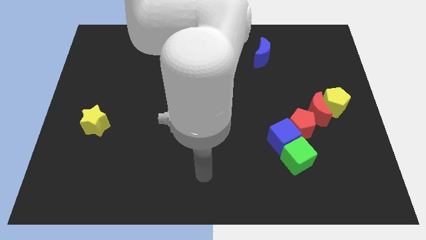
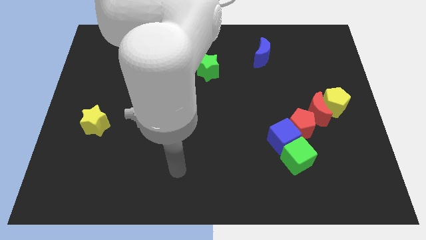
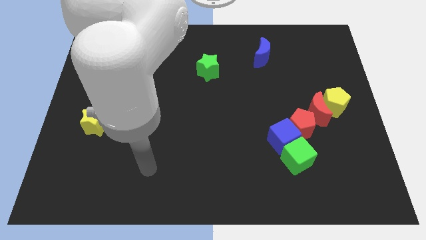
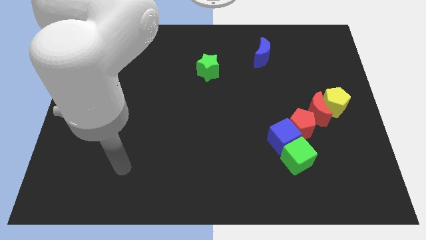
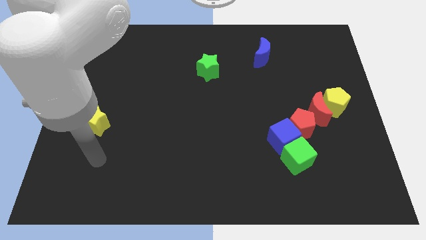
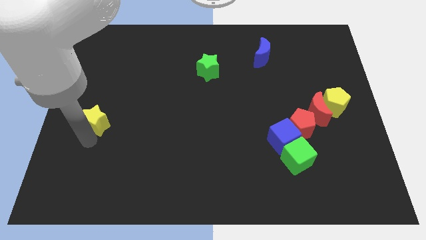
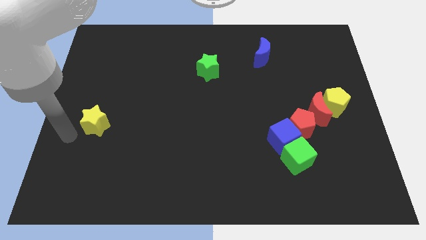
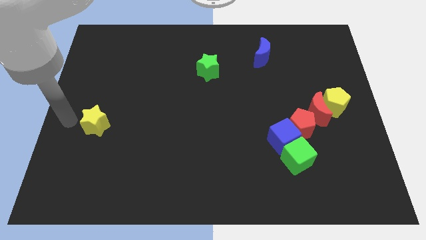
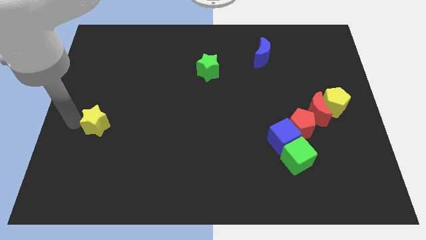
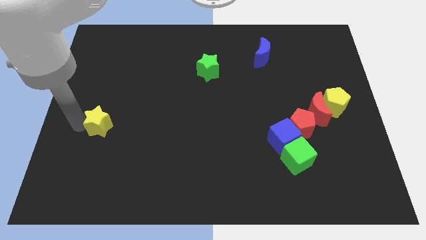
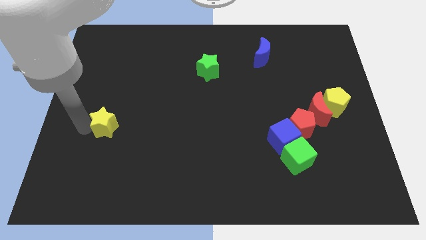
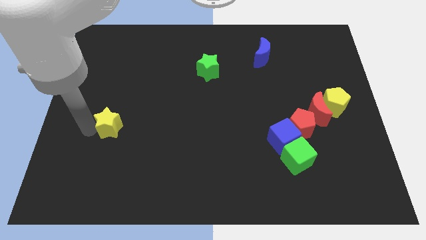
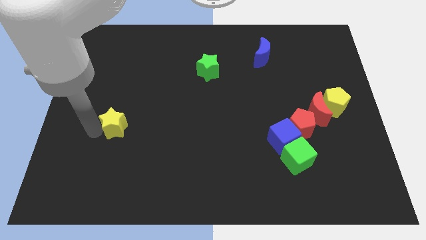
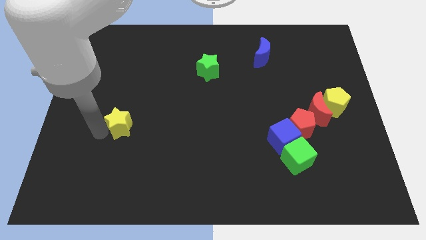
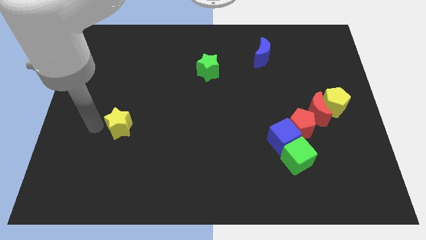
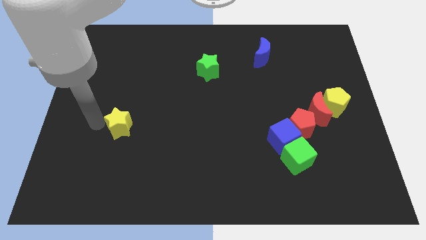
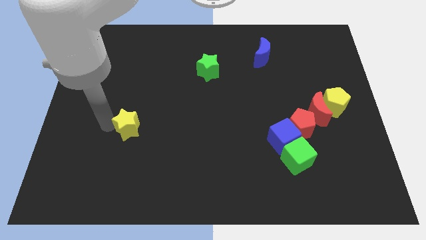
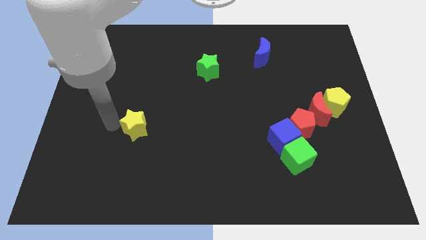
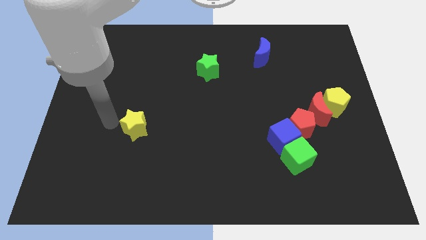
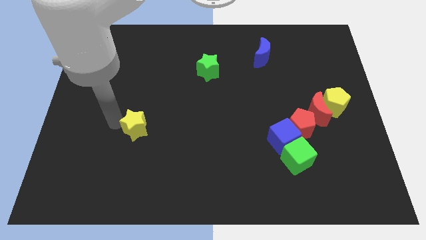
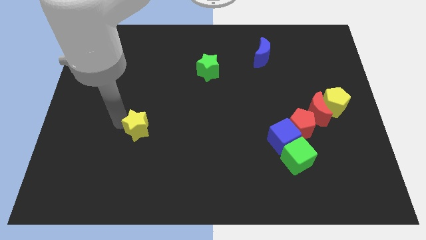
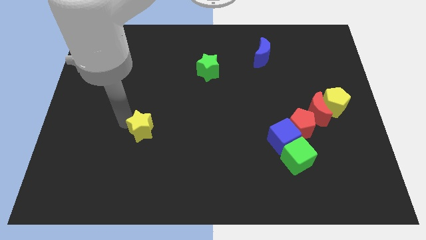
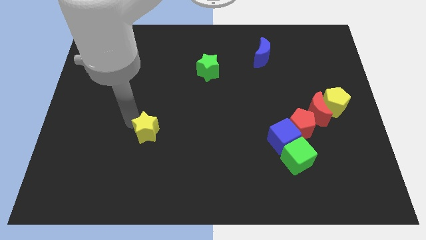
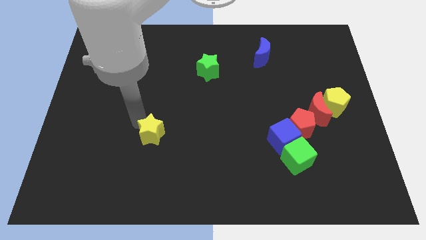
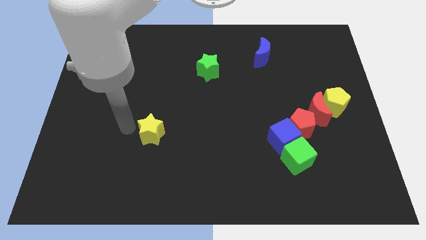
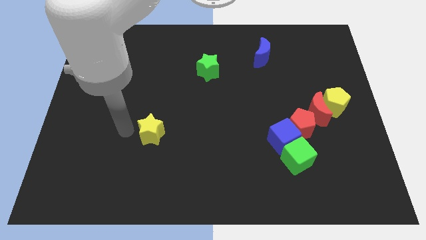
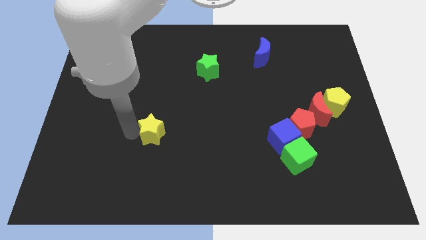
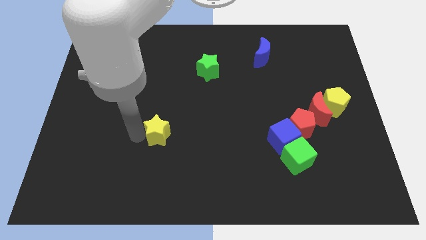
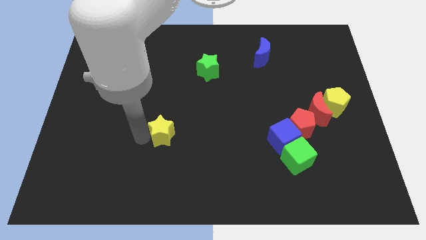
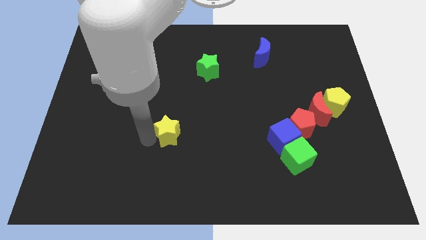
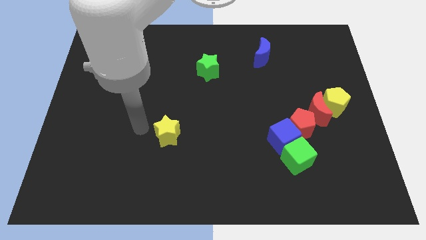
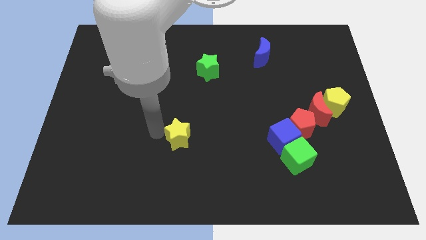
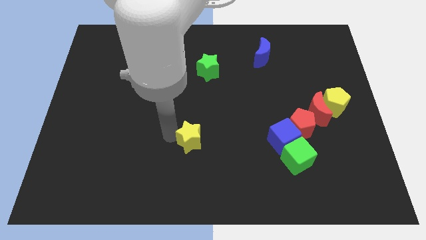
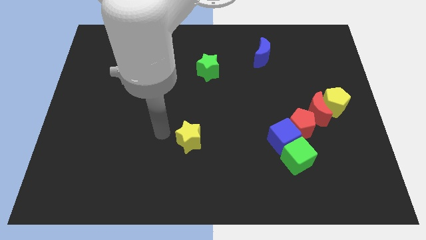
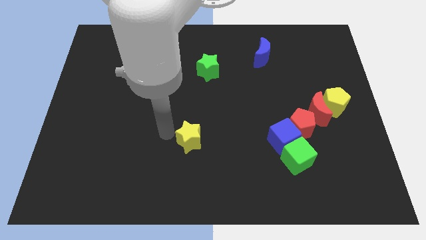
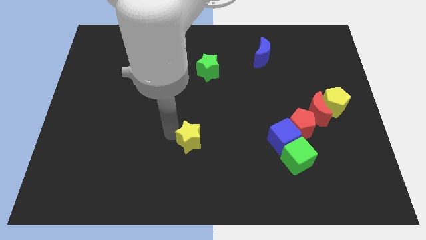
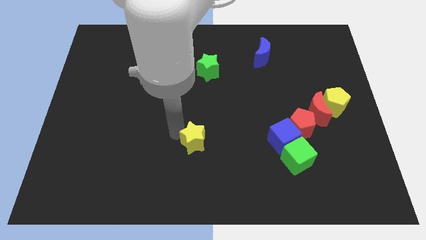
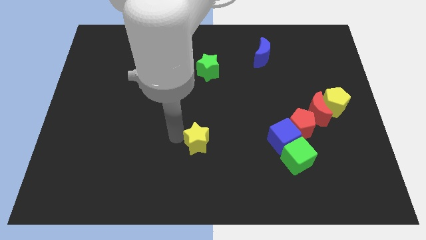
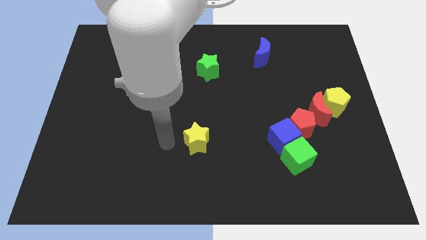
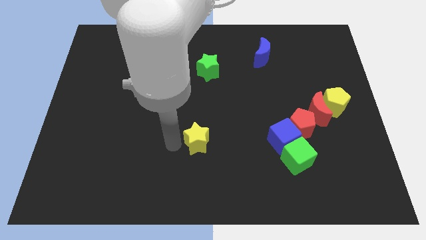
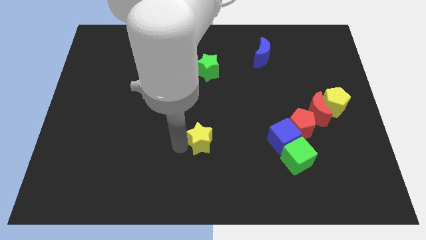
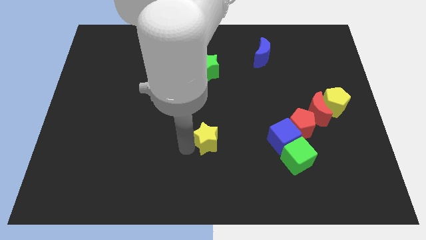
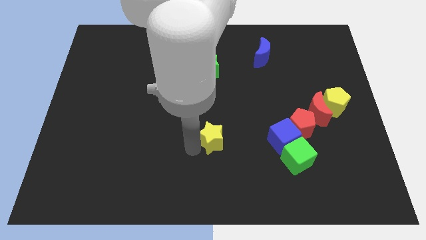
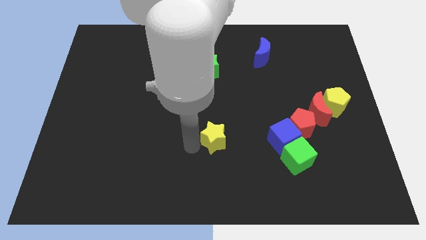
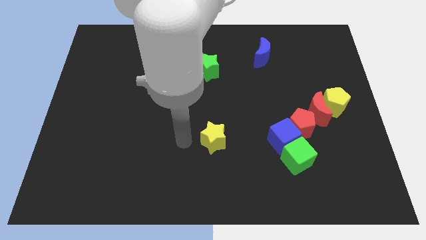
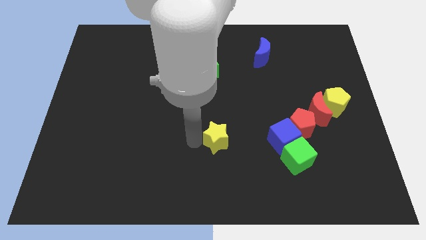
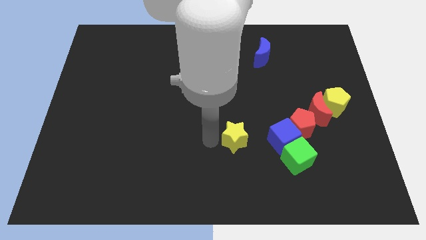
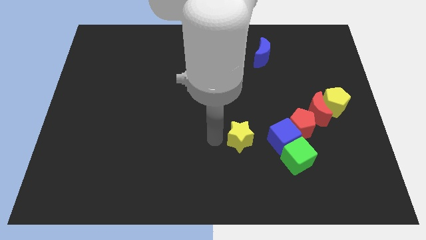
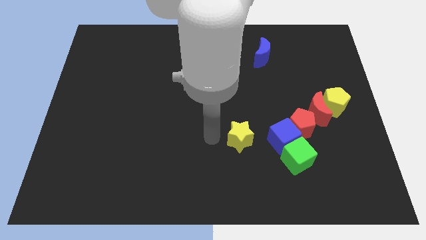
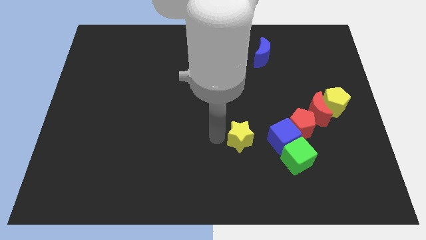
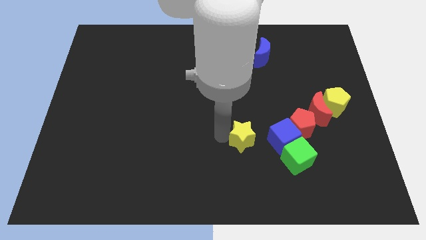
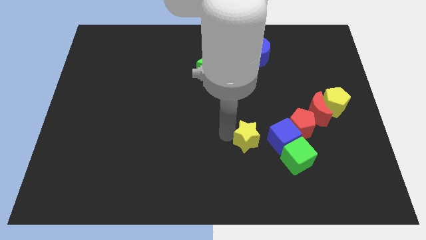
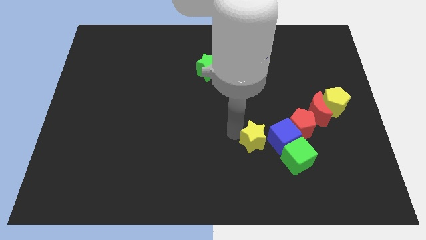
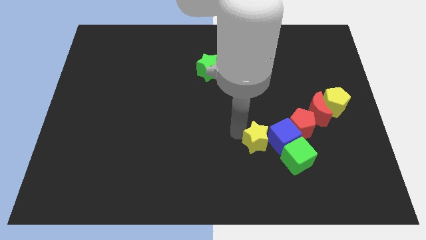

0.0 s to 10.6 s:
slide the yellow star to the blue cube

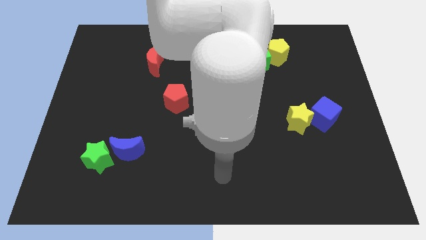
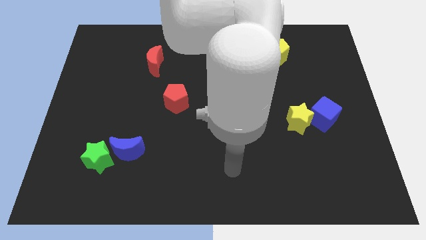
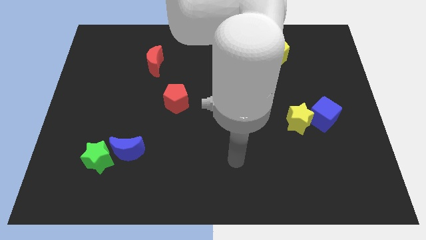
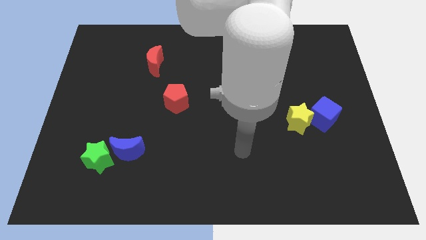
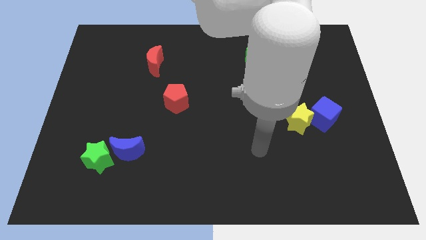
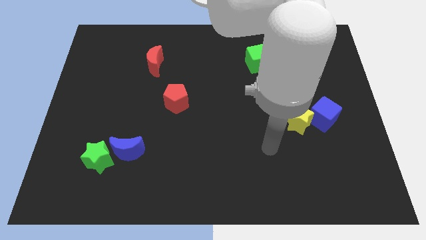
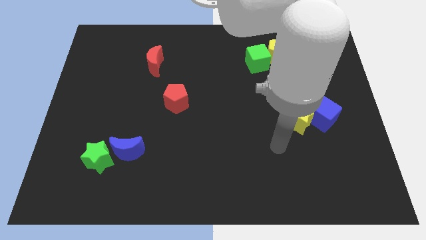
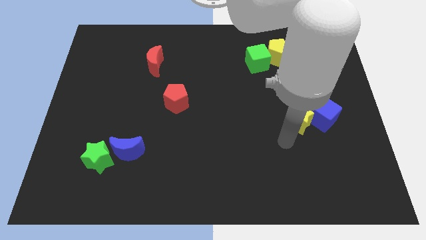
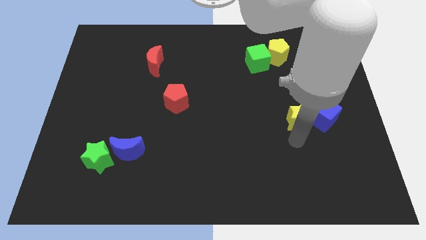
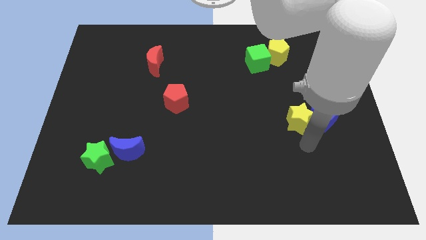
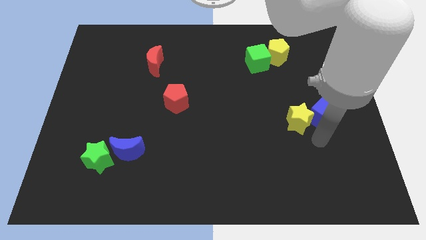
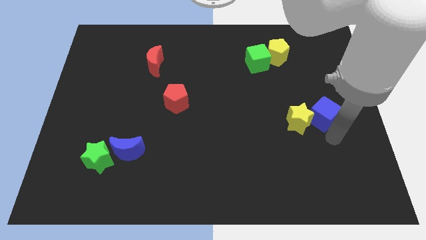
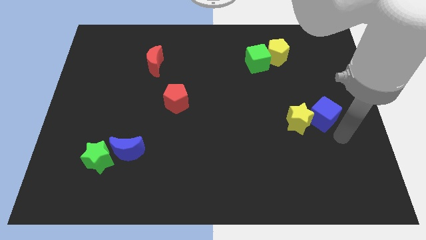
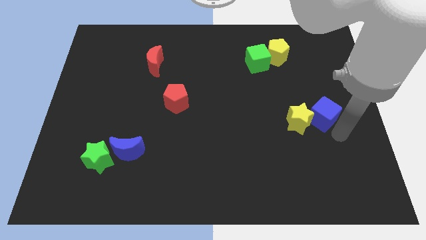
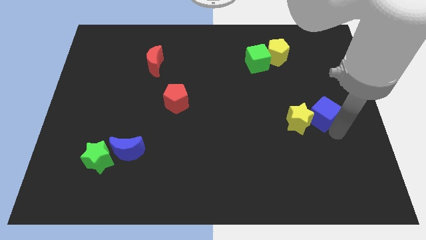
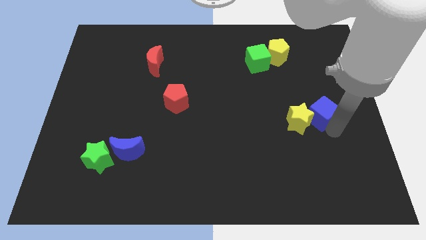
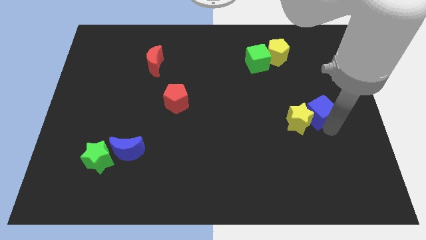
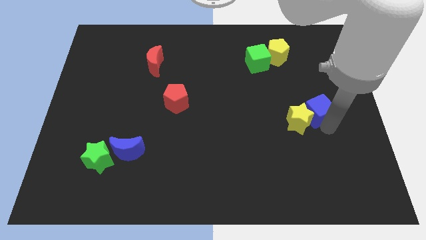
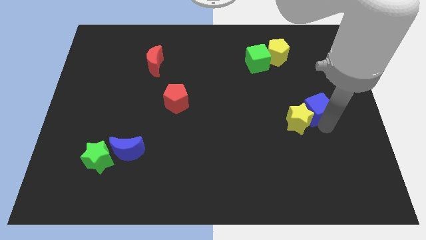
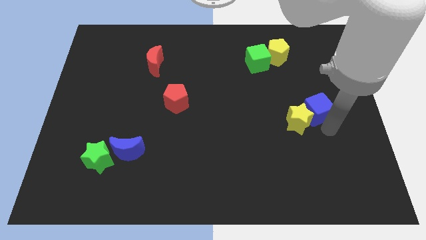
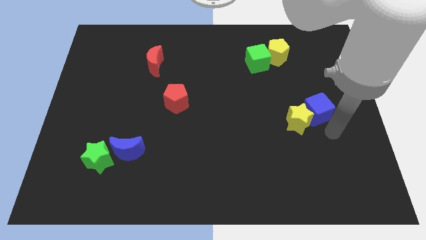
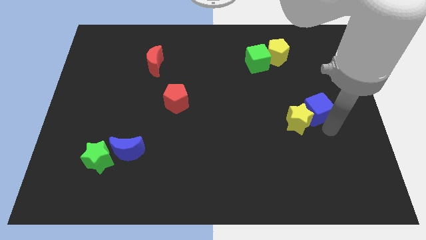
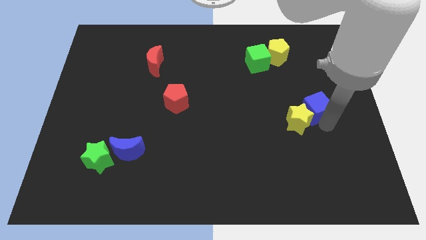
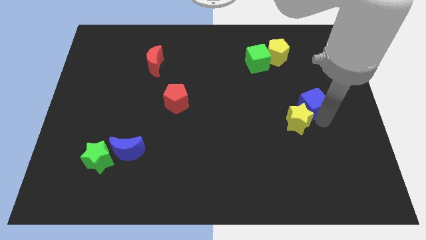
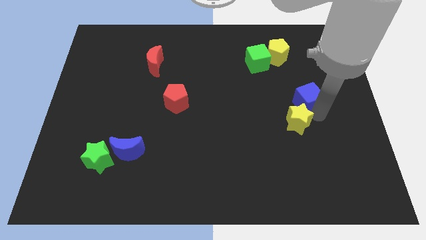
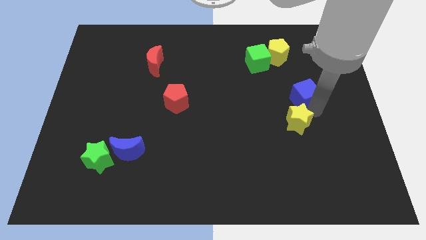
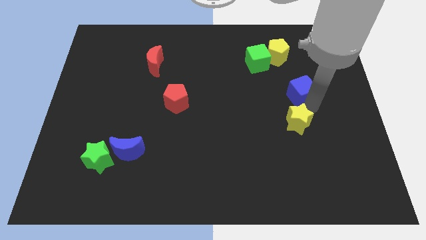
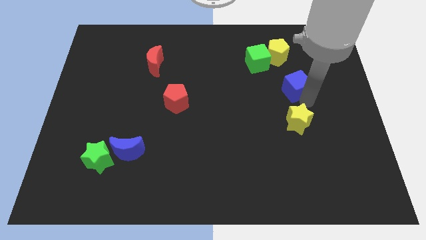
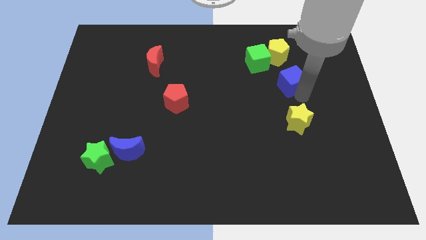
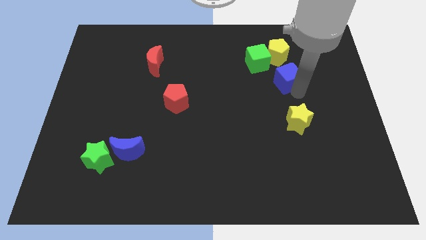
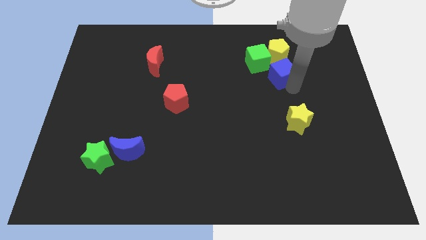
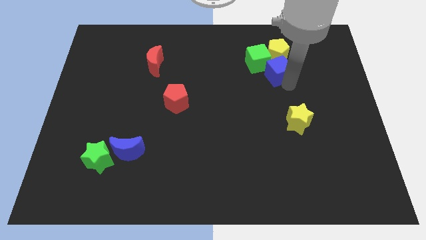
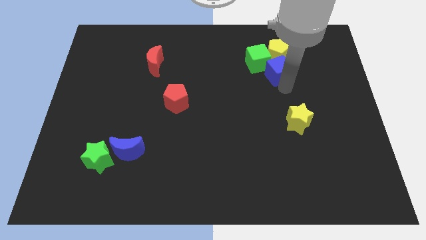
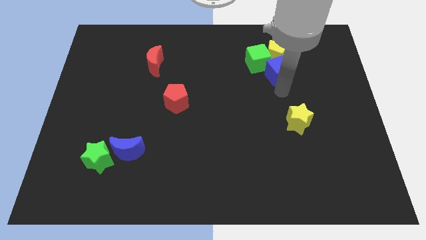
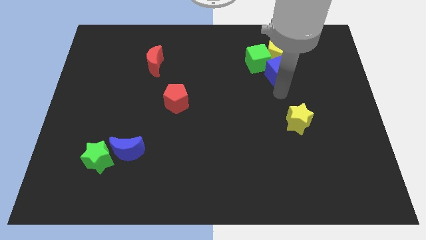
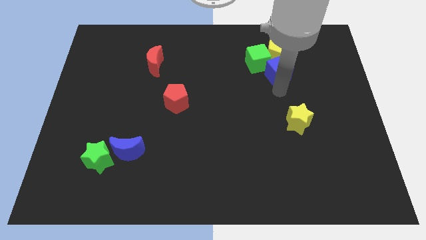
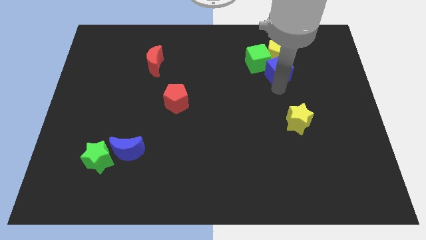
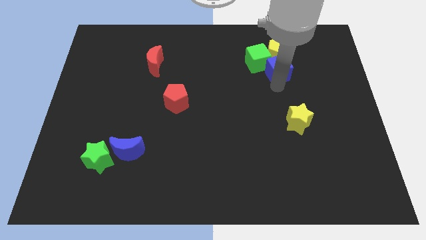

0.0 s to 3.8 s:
slide the blue cube next to the yellow pentagon
